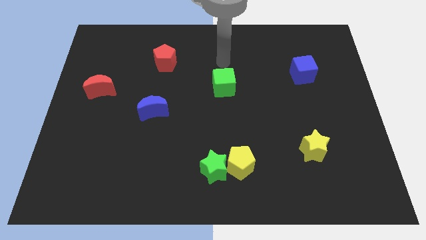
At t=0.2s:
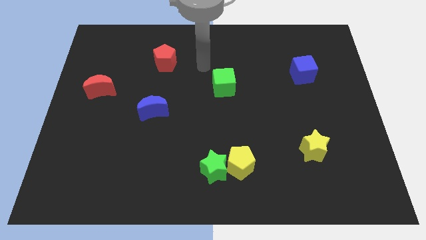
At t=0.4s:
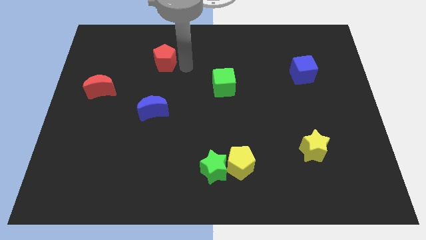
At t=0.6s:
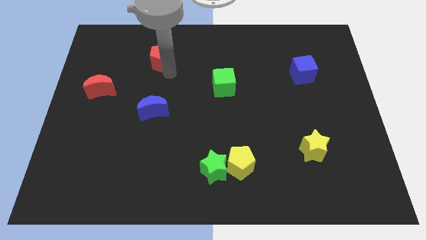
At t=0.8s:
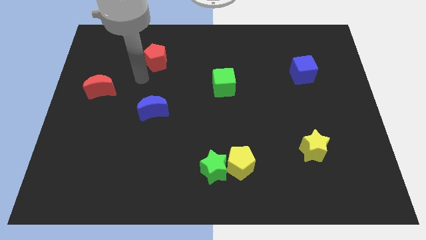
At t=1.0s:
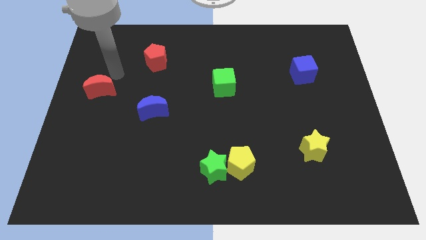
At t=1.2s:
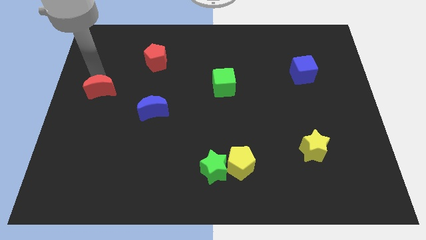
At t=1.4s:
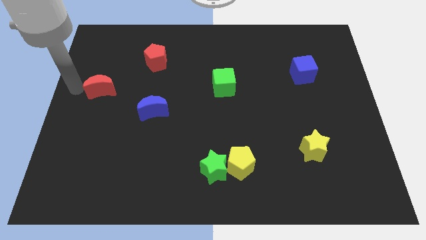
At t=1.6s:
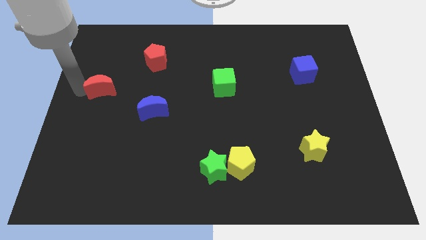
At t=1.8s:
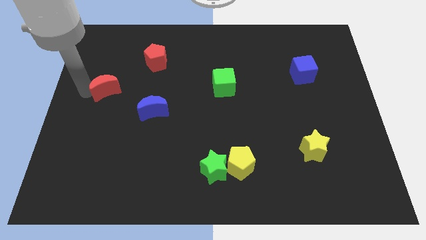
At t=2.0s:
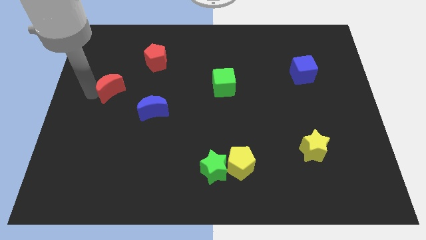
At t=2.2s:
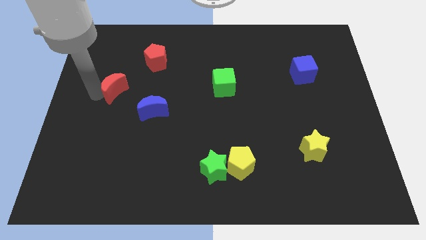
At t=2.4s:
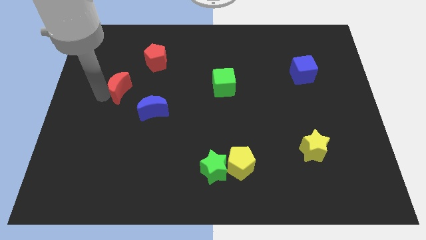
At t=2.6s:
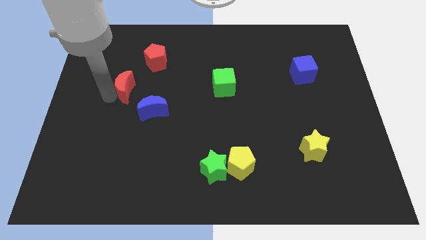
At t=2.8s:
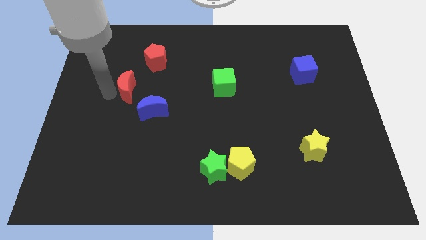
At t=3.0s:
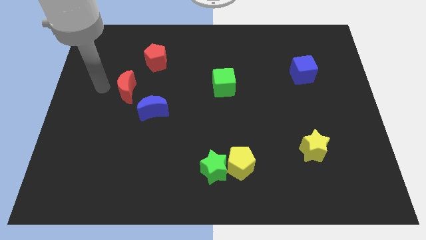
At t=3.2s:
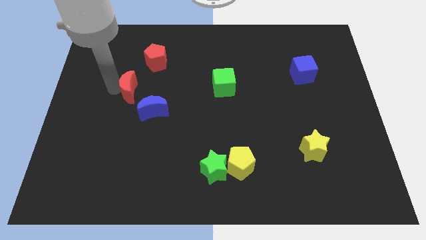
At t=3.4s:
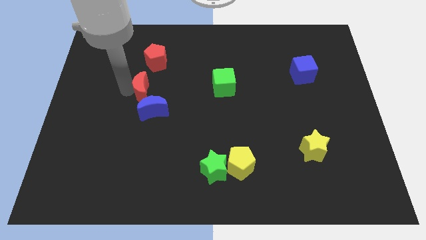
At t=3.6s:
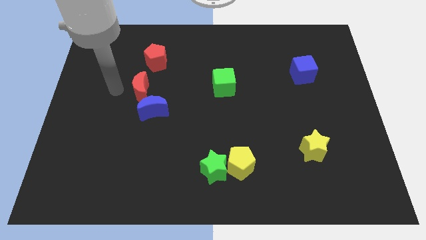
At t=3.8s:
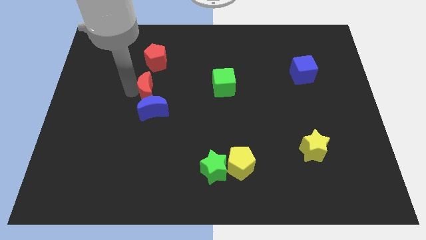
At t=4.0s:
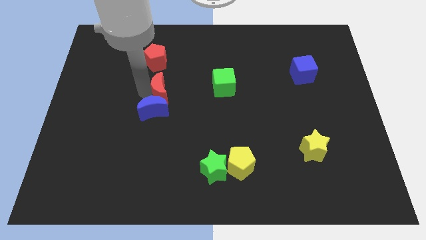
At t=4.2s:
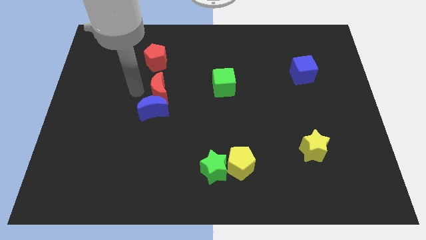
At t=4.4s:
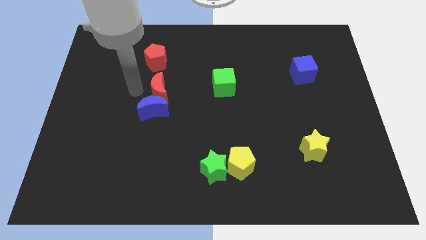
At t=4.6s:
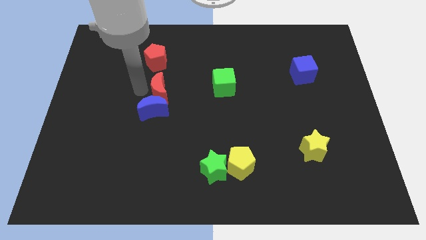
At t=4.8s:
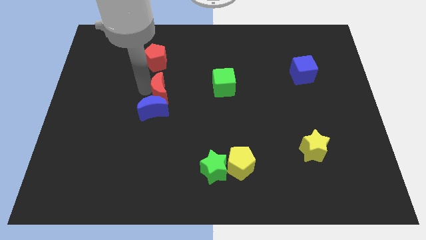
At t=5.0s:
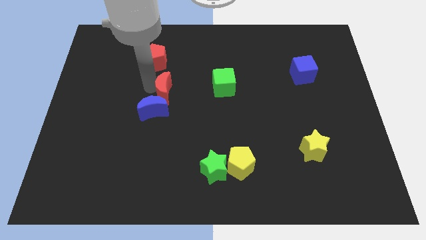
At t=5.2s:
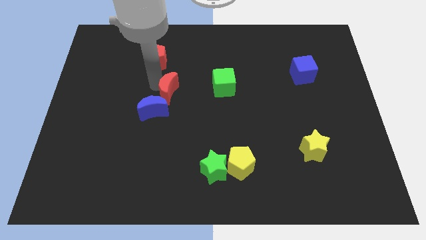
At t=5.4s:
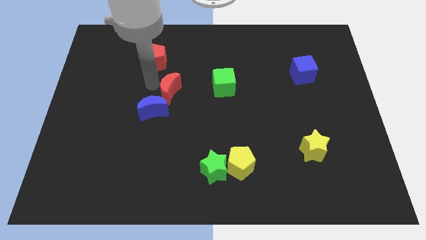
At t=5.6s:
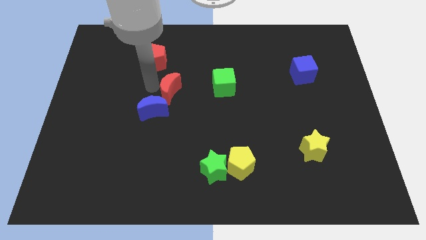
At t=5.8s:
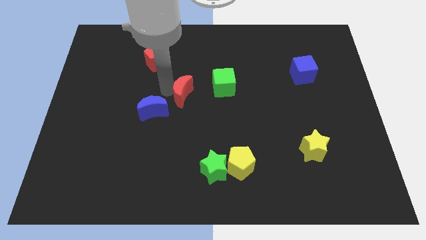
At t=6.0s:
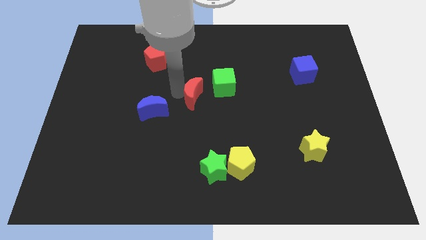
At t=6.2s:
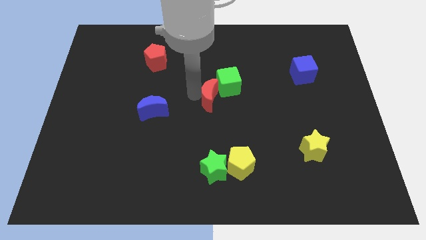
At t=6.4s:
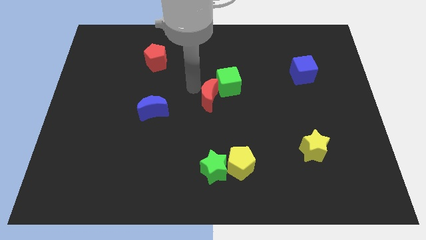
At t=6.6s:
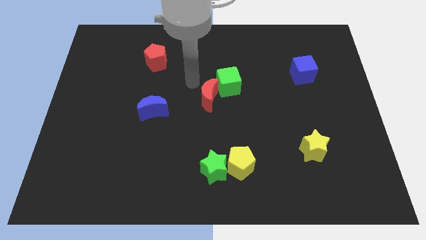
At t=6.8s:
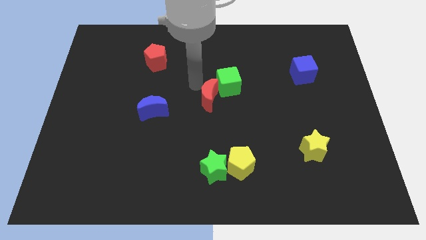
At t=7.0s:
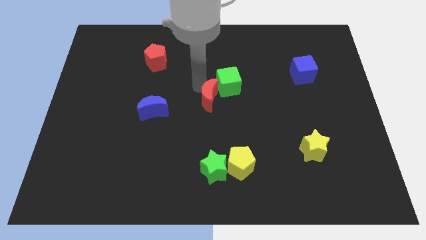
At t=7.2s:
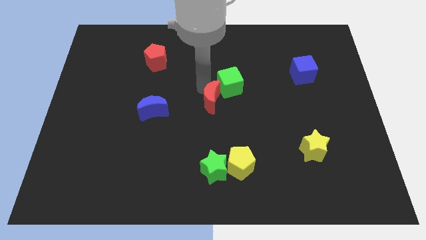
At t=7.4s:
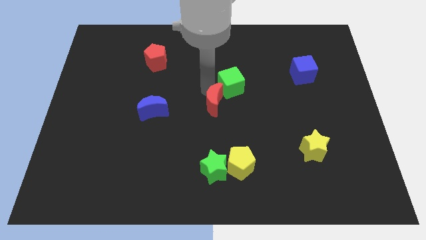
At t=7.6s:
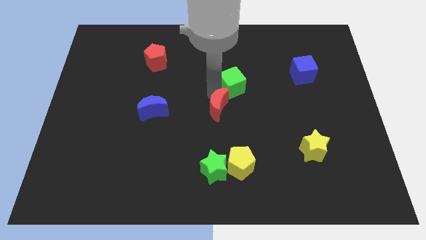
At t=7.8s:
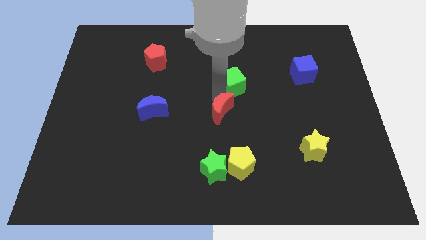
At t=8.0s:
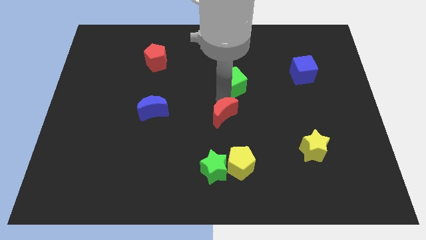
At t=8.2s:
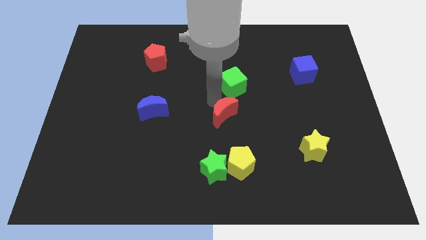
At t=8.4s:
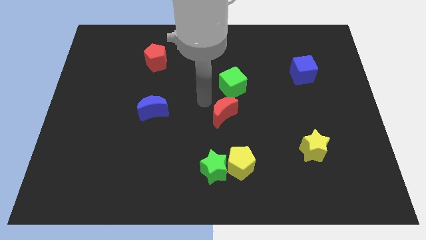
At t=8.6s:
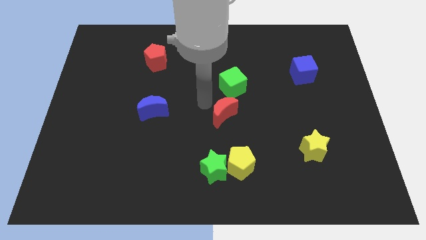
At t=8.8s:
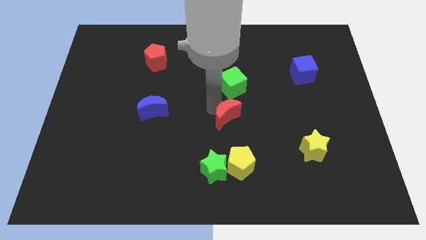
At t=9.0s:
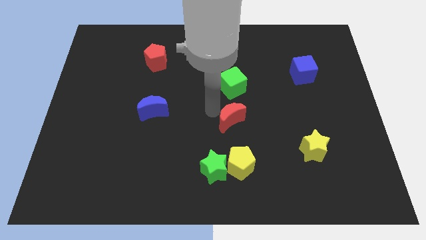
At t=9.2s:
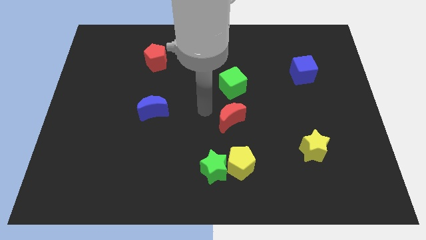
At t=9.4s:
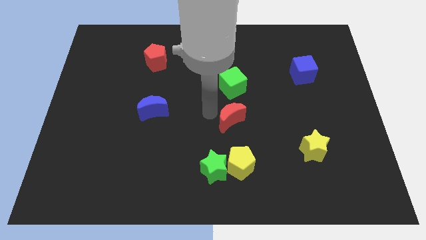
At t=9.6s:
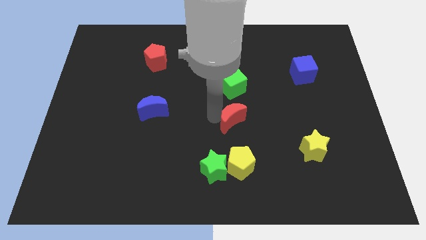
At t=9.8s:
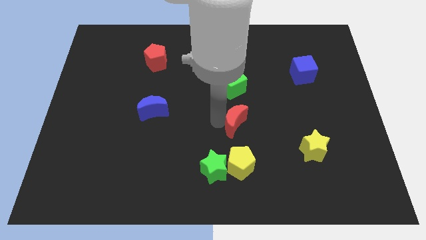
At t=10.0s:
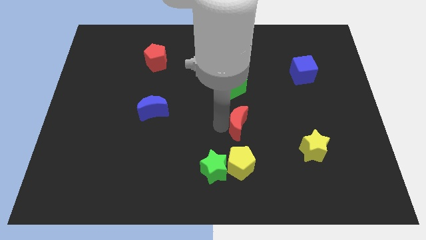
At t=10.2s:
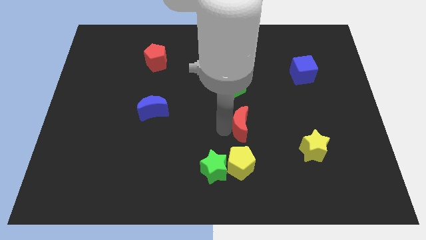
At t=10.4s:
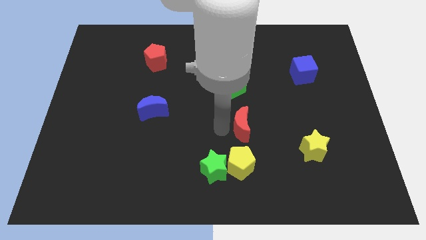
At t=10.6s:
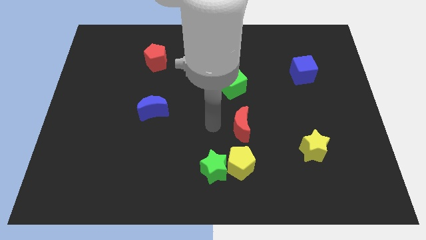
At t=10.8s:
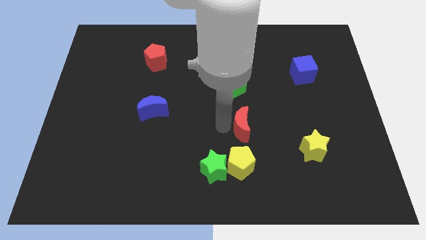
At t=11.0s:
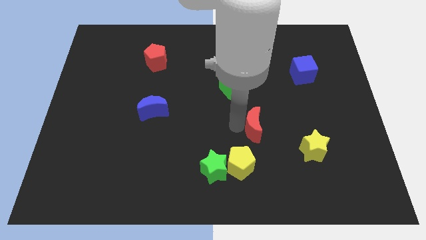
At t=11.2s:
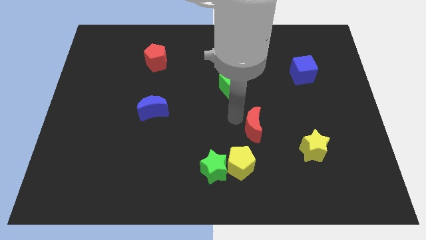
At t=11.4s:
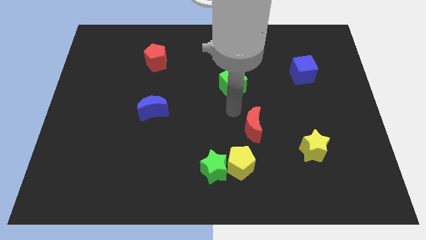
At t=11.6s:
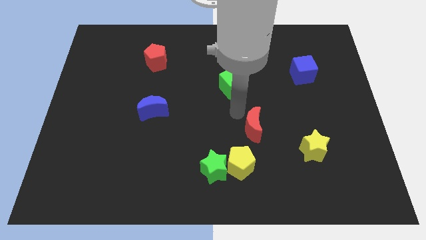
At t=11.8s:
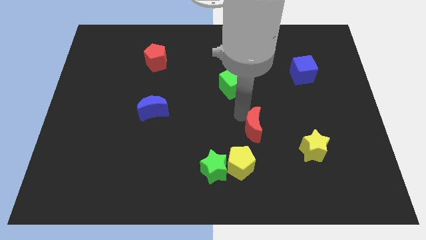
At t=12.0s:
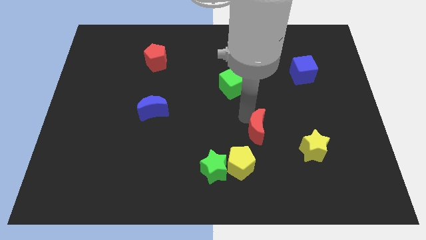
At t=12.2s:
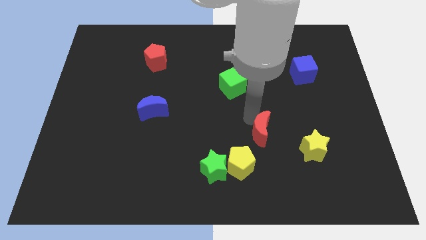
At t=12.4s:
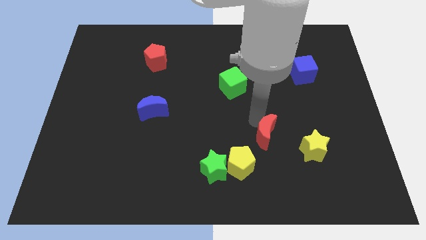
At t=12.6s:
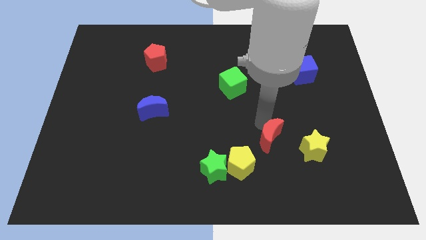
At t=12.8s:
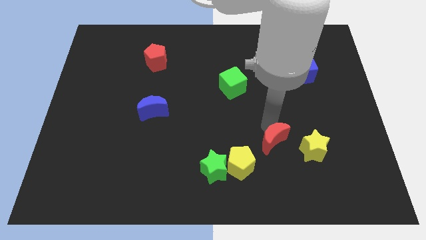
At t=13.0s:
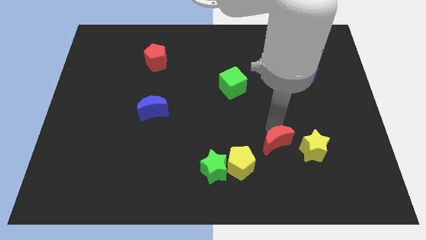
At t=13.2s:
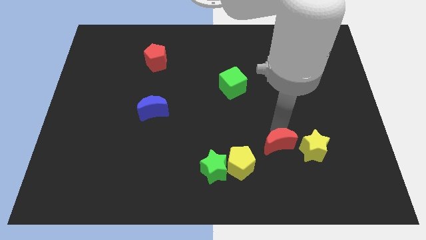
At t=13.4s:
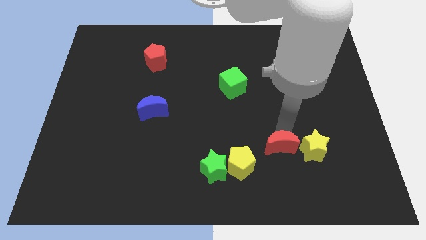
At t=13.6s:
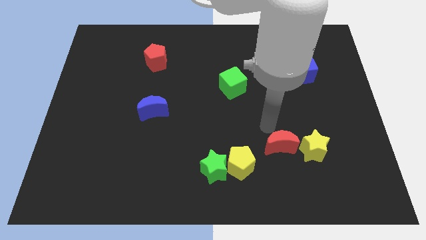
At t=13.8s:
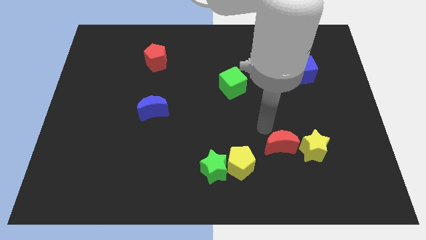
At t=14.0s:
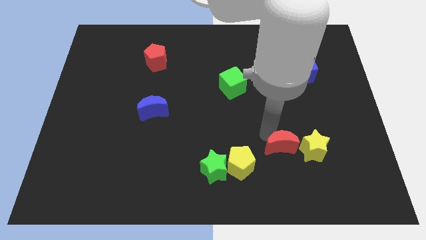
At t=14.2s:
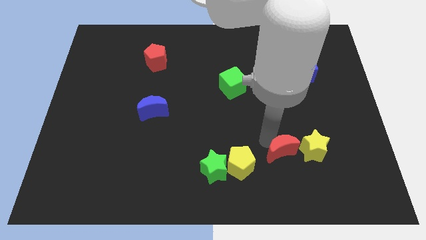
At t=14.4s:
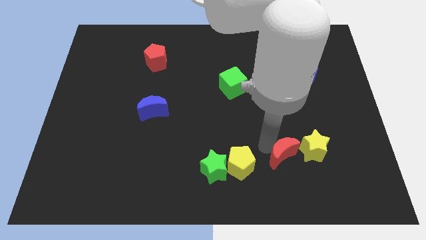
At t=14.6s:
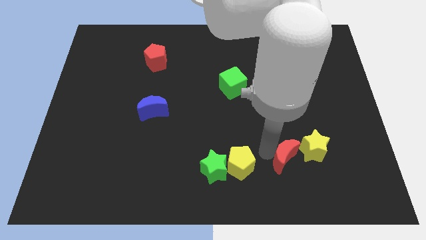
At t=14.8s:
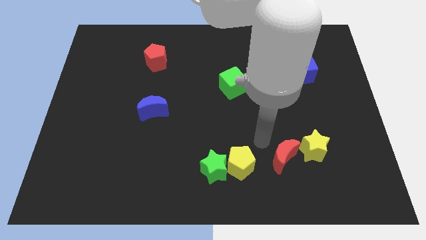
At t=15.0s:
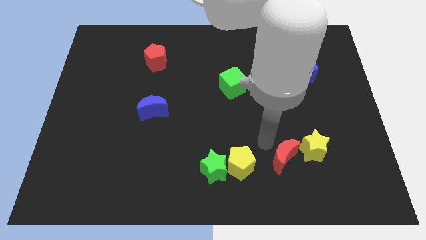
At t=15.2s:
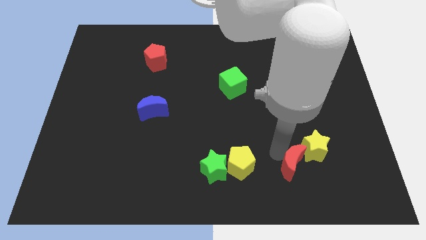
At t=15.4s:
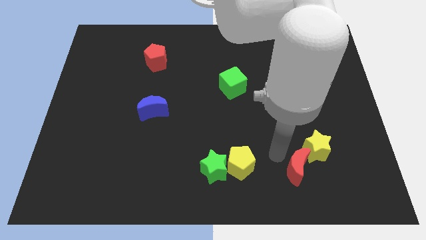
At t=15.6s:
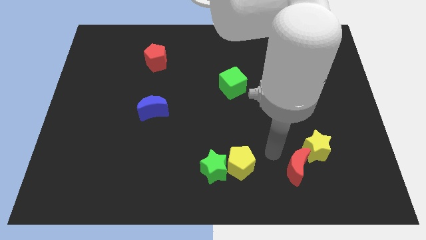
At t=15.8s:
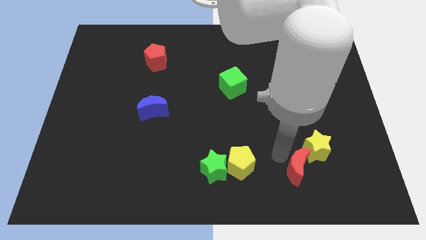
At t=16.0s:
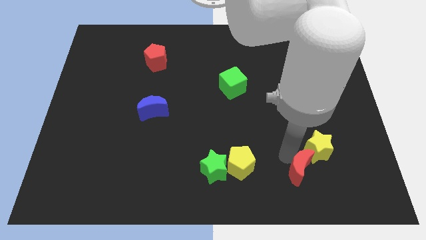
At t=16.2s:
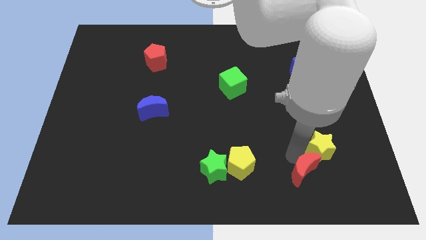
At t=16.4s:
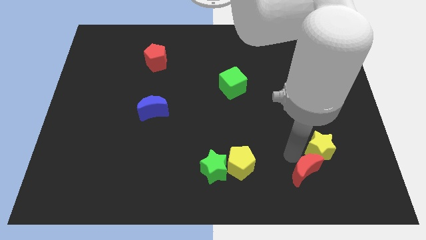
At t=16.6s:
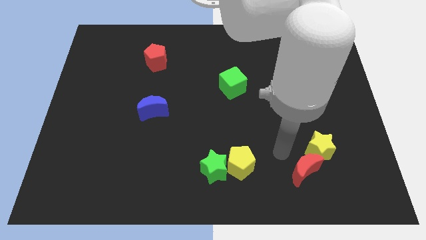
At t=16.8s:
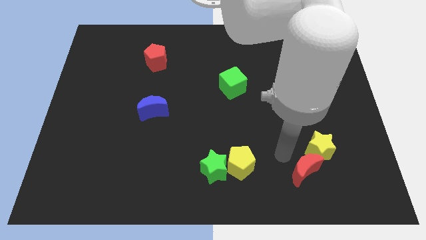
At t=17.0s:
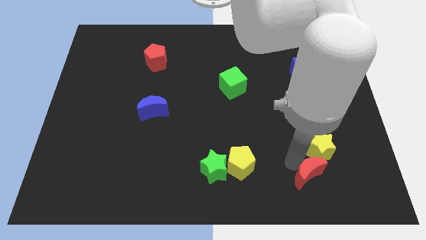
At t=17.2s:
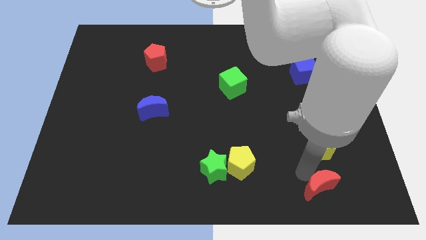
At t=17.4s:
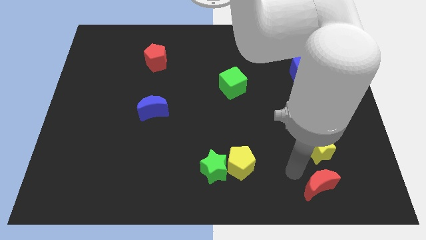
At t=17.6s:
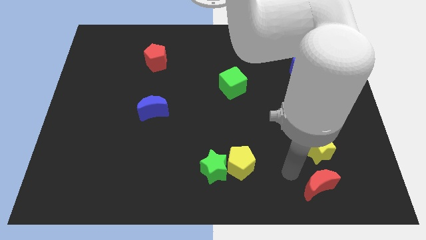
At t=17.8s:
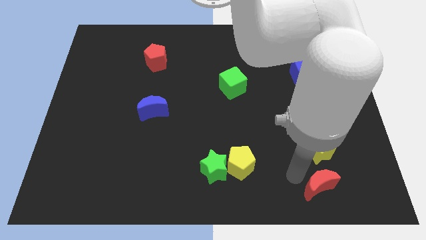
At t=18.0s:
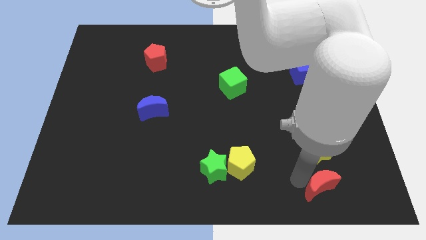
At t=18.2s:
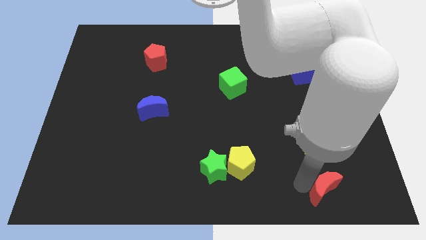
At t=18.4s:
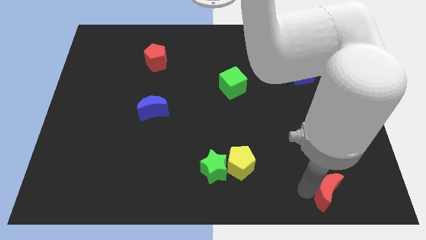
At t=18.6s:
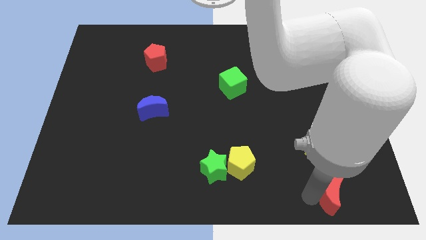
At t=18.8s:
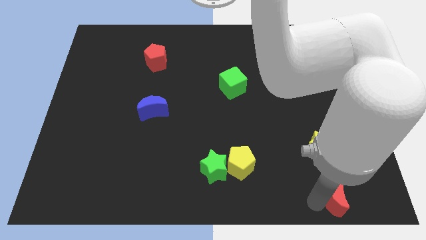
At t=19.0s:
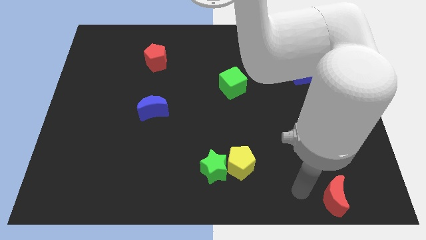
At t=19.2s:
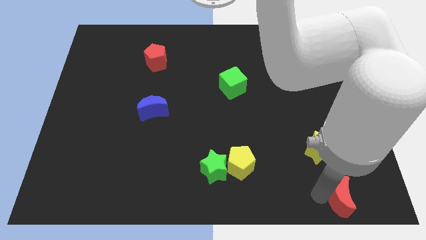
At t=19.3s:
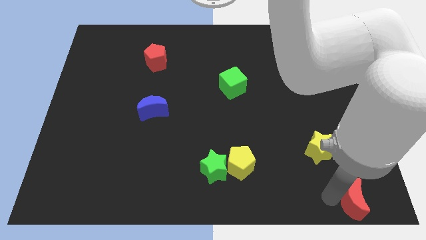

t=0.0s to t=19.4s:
slide the red moon to the bottom right
